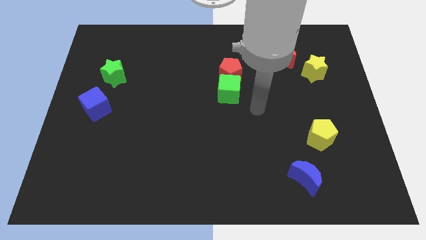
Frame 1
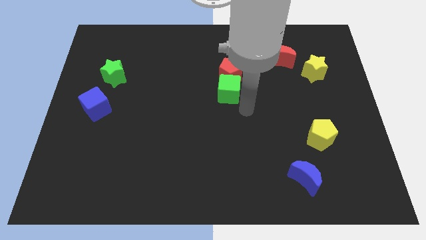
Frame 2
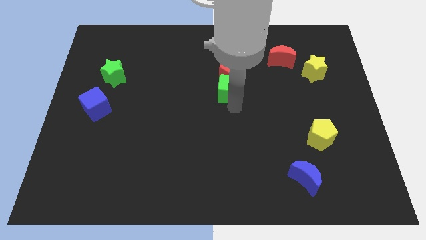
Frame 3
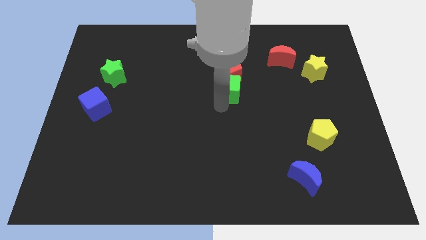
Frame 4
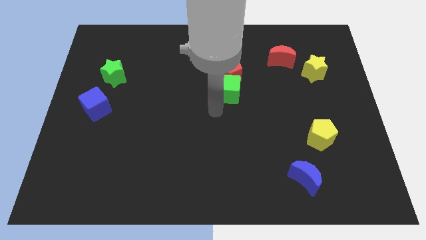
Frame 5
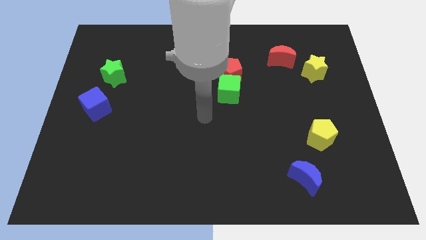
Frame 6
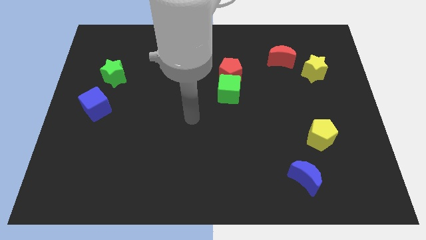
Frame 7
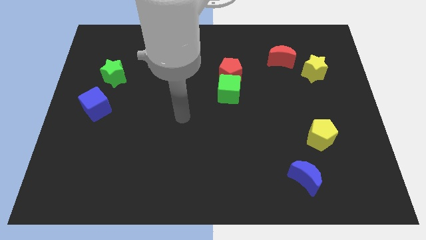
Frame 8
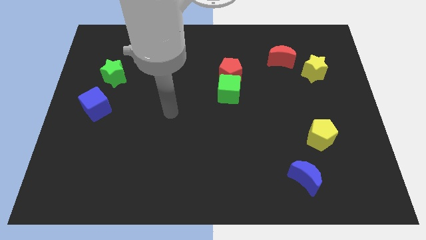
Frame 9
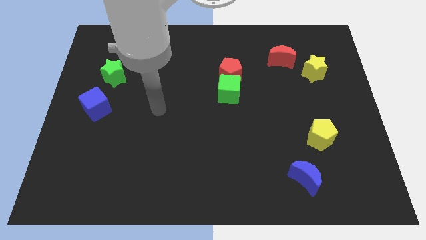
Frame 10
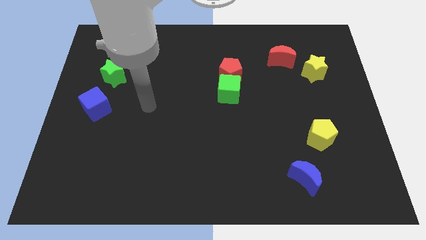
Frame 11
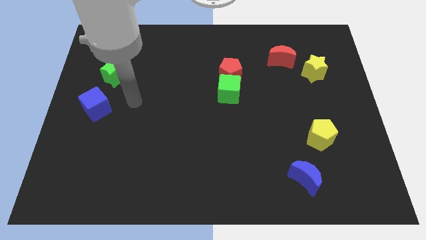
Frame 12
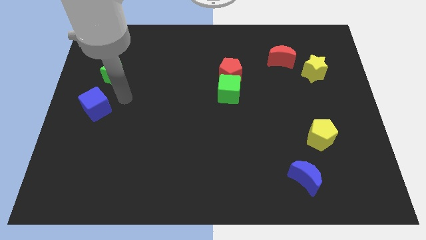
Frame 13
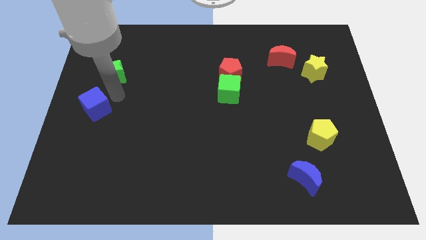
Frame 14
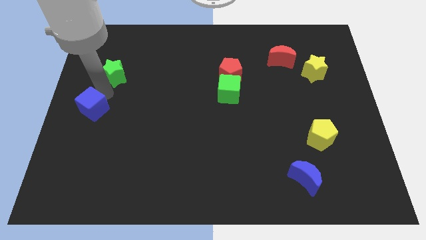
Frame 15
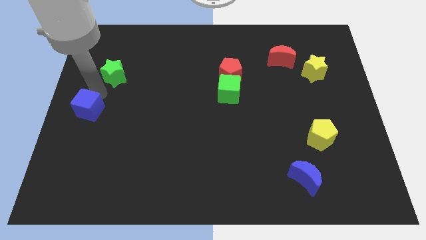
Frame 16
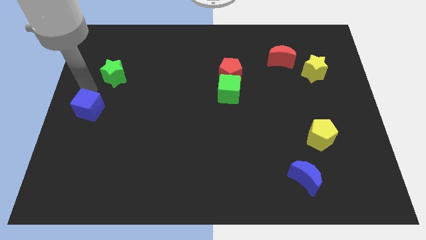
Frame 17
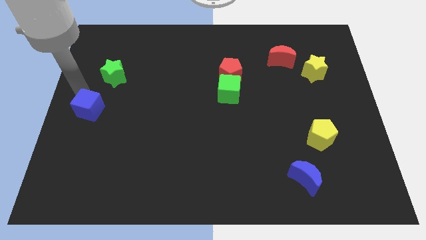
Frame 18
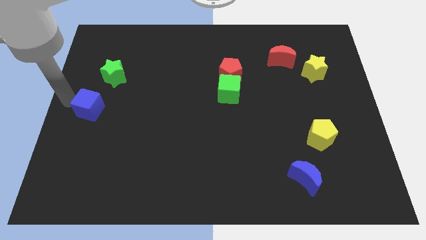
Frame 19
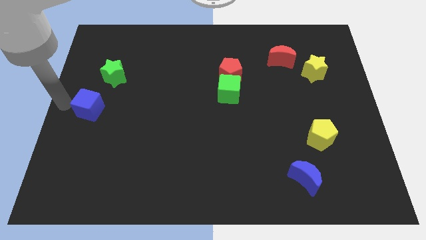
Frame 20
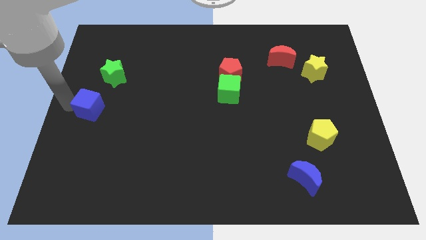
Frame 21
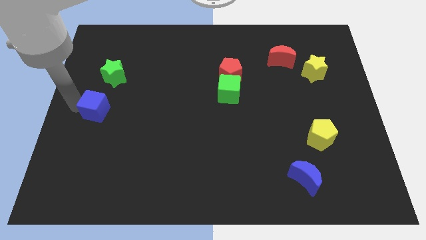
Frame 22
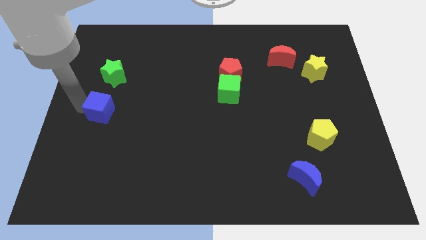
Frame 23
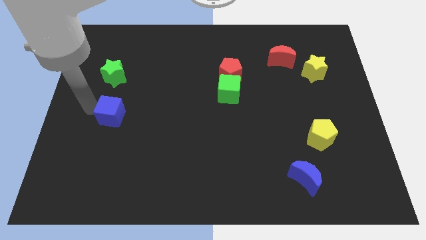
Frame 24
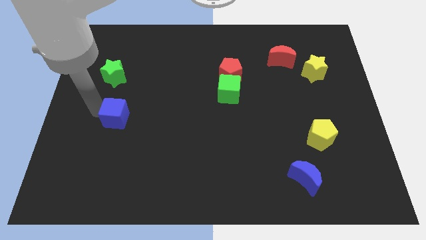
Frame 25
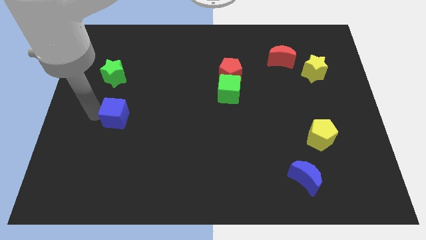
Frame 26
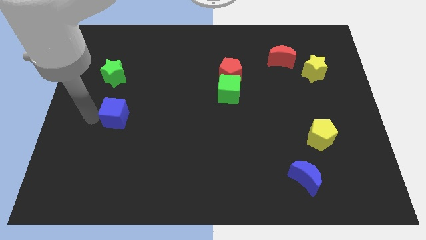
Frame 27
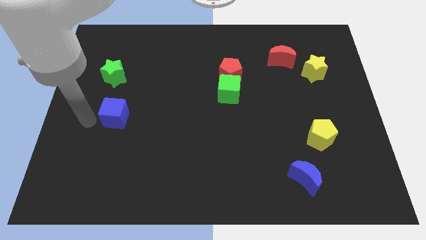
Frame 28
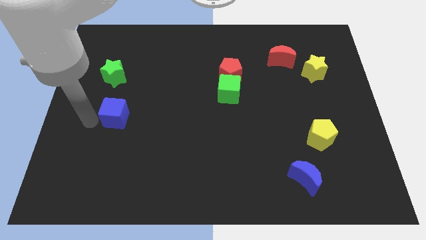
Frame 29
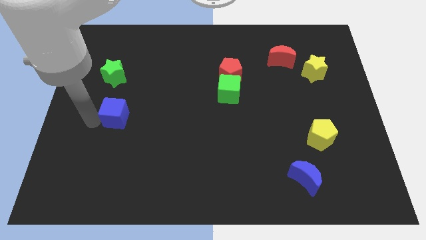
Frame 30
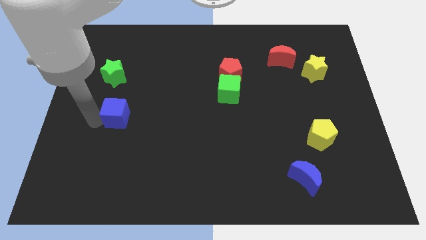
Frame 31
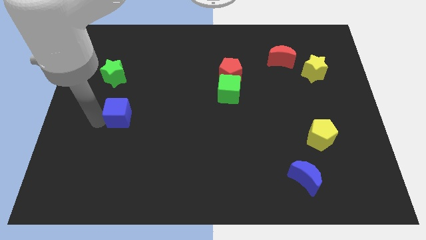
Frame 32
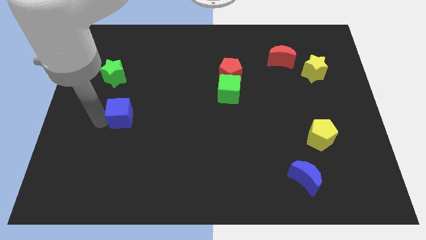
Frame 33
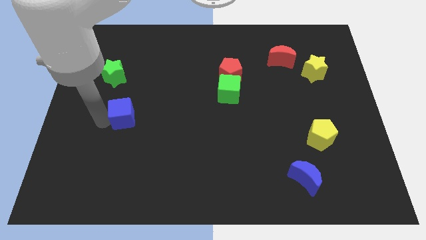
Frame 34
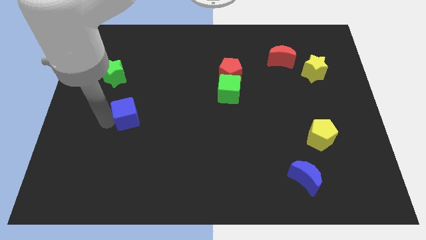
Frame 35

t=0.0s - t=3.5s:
slightly slide the blue cube right

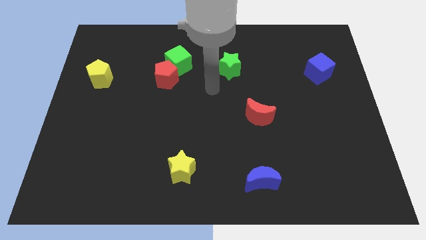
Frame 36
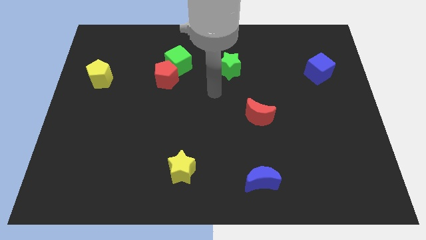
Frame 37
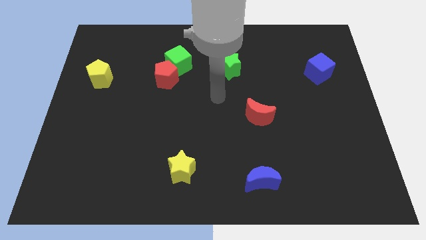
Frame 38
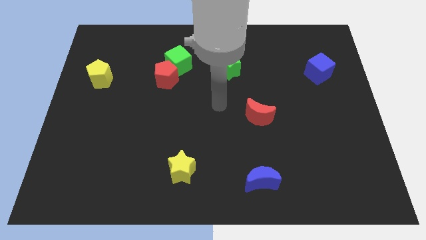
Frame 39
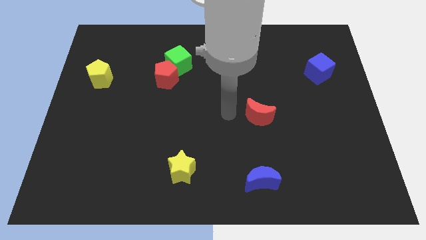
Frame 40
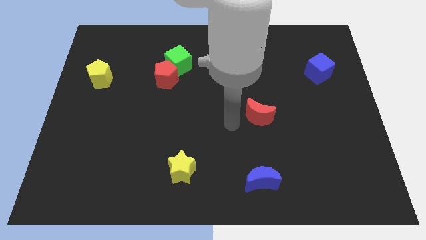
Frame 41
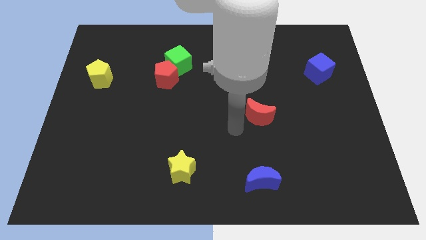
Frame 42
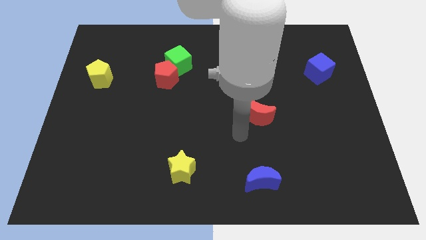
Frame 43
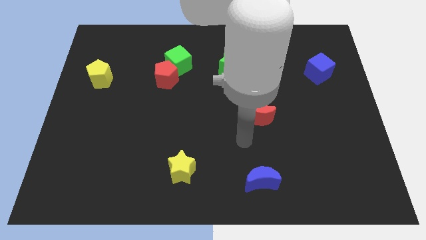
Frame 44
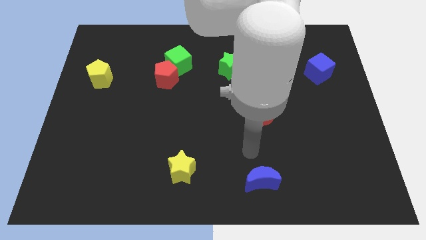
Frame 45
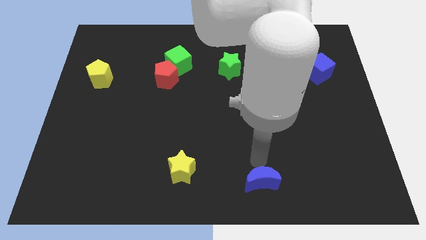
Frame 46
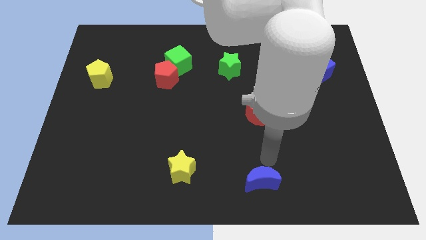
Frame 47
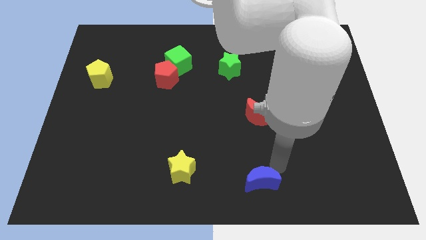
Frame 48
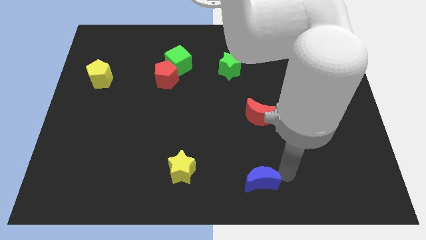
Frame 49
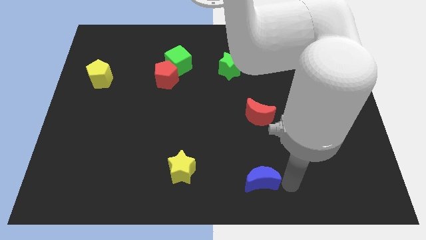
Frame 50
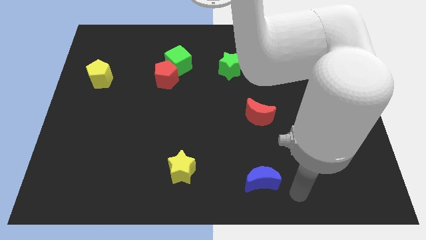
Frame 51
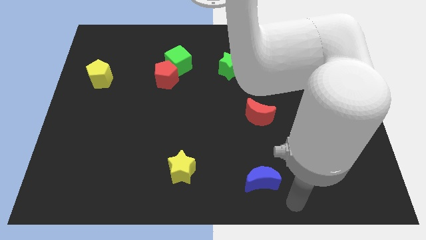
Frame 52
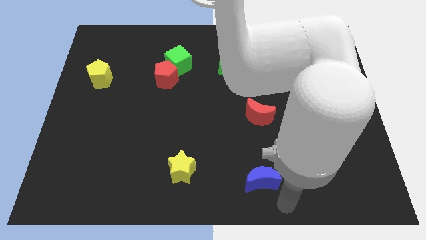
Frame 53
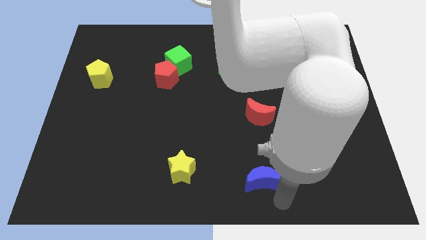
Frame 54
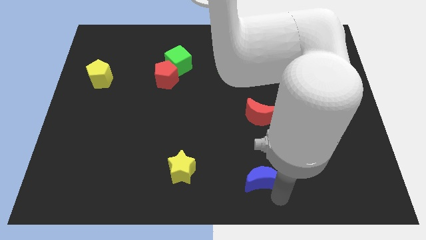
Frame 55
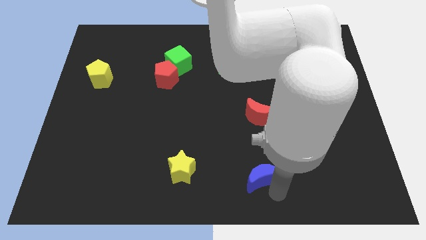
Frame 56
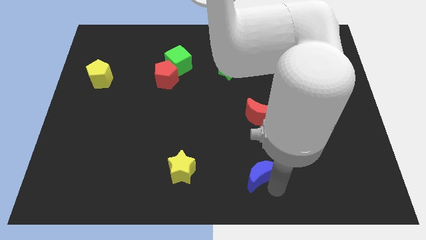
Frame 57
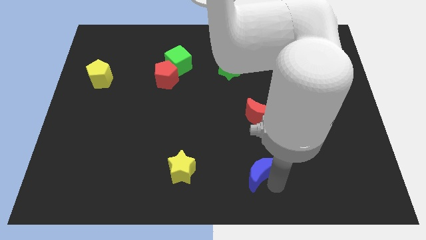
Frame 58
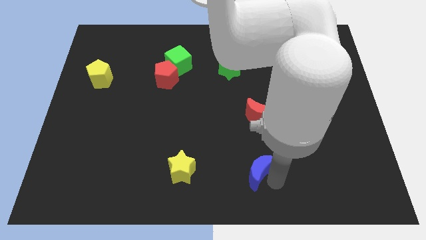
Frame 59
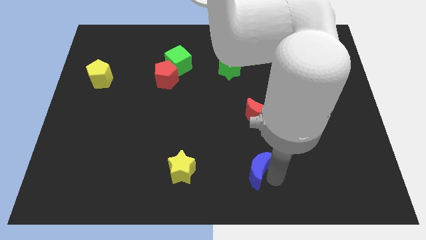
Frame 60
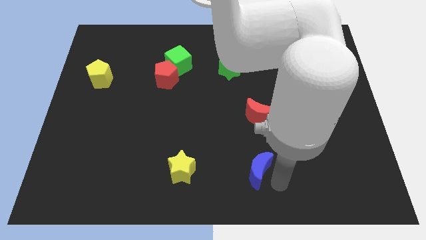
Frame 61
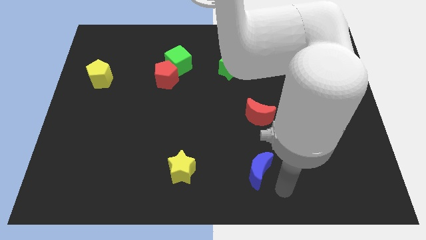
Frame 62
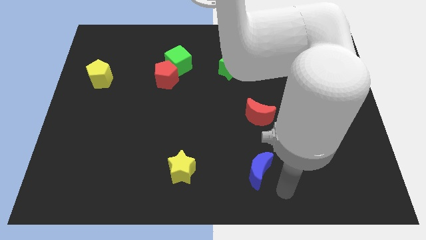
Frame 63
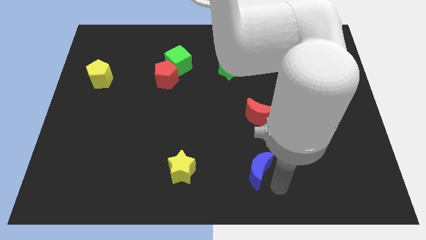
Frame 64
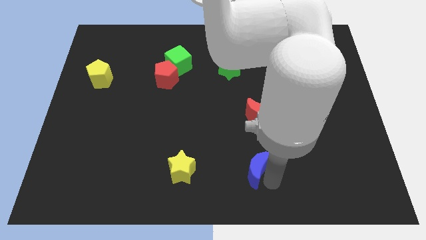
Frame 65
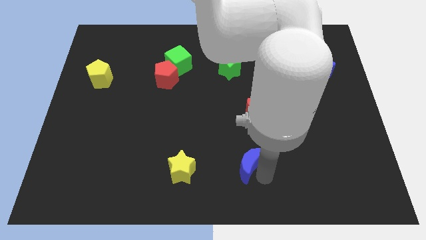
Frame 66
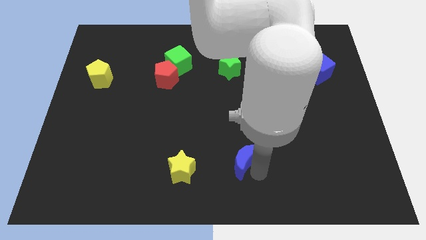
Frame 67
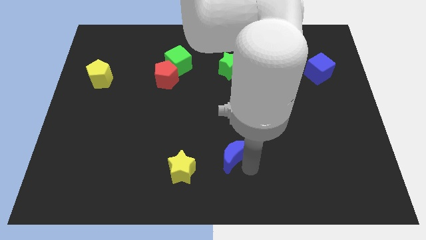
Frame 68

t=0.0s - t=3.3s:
slightly slide the blue moon up and then to the left

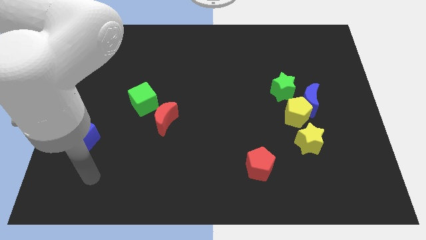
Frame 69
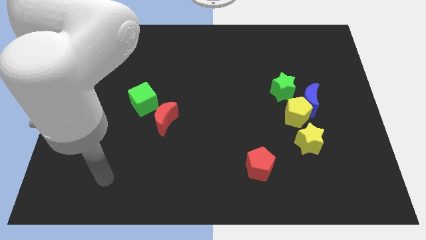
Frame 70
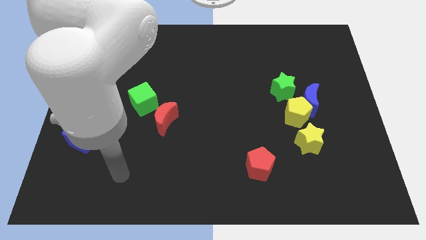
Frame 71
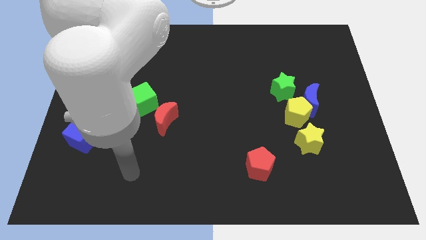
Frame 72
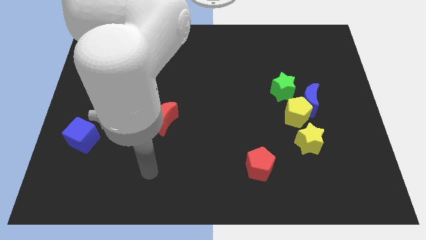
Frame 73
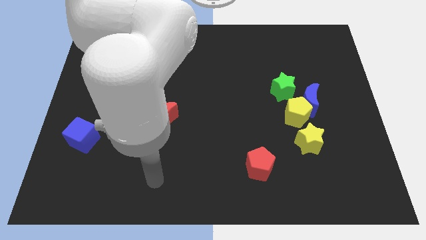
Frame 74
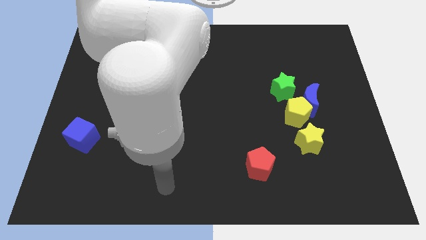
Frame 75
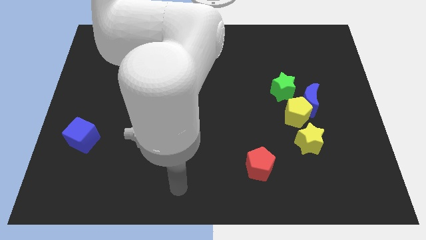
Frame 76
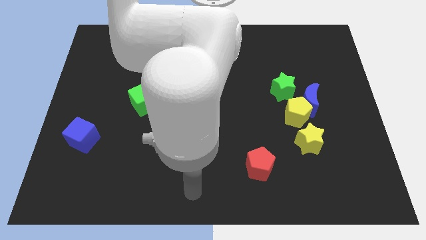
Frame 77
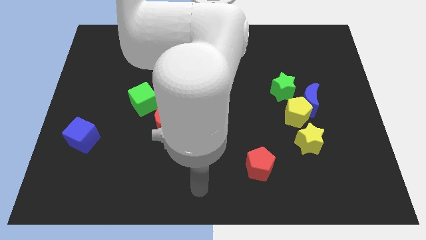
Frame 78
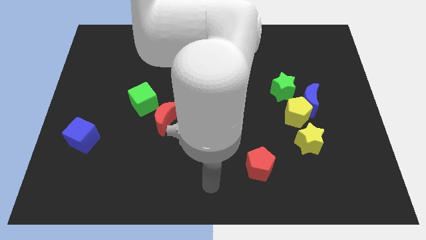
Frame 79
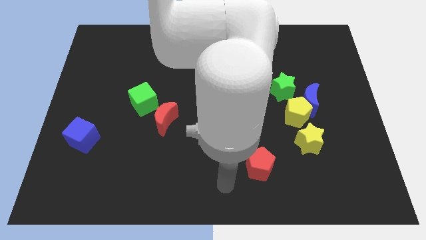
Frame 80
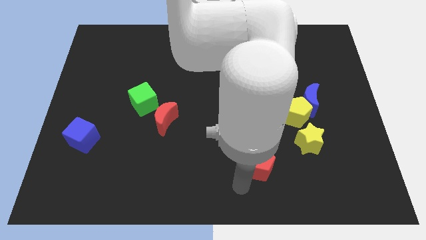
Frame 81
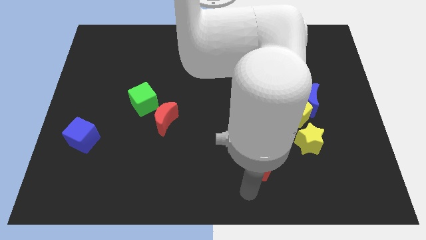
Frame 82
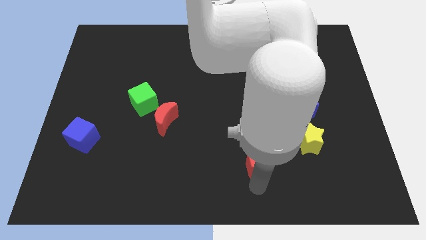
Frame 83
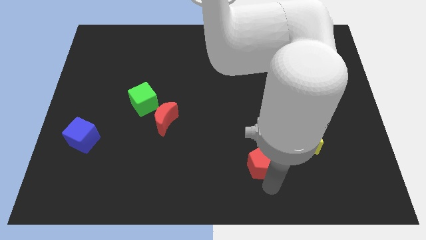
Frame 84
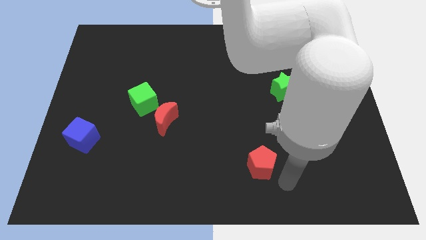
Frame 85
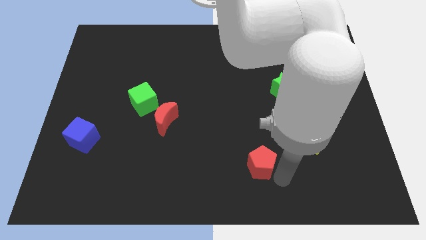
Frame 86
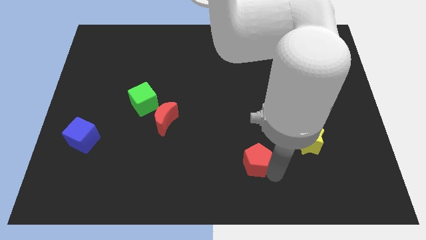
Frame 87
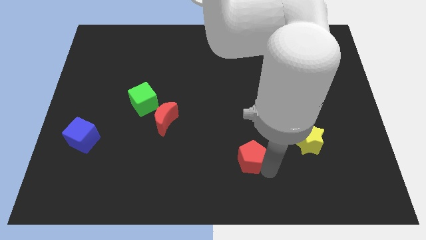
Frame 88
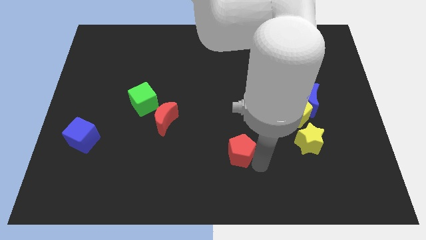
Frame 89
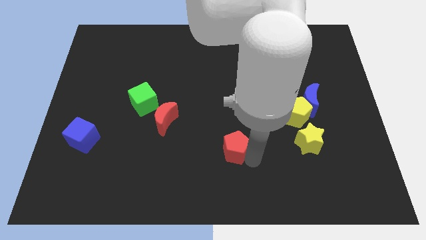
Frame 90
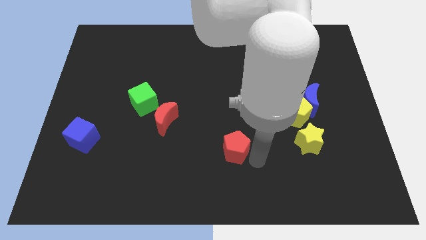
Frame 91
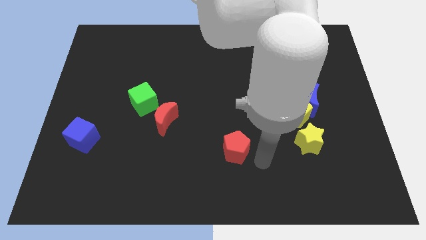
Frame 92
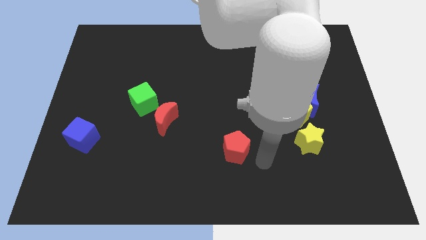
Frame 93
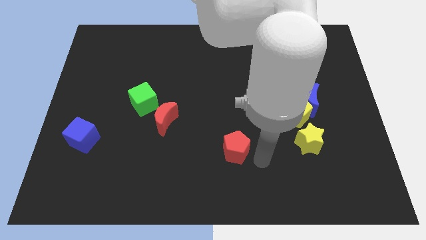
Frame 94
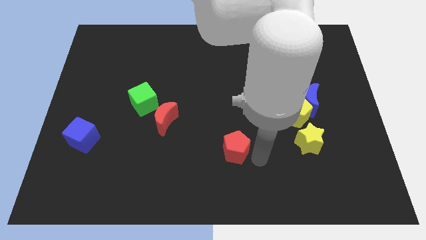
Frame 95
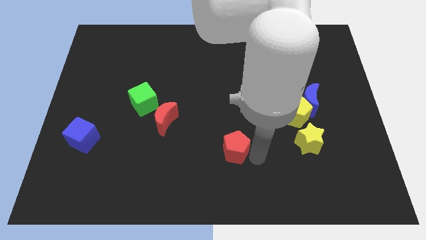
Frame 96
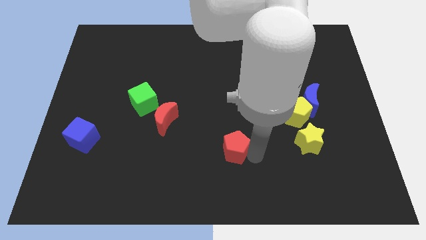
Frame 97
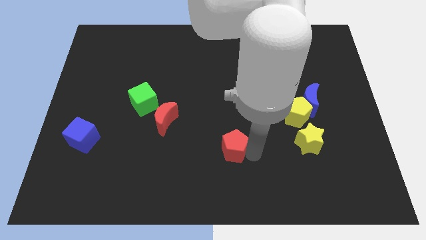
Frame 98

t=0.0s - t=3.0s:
slide the red pentagon a bit up and to the left
